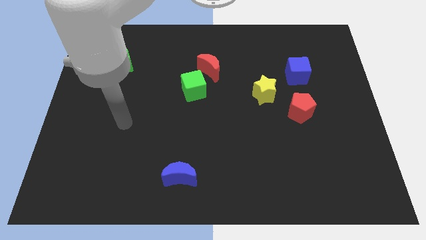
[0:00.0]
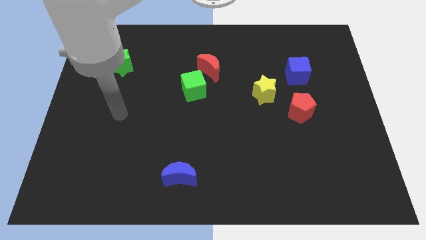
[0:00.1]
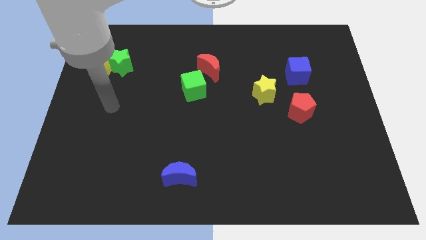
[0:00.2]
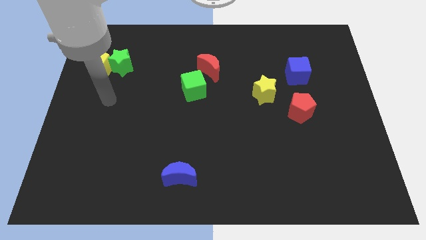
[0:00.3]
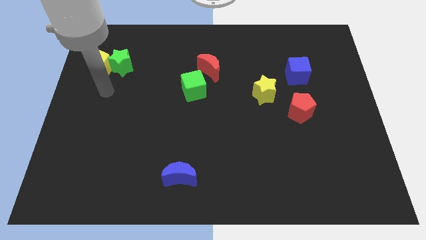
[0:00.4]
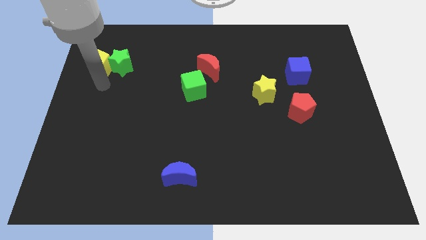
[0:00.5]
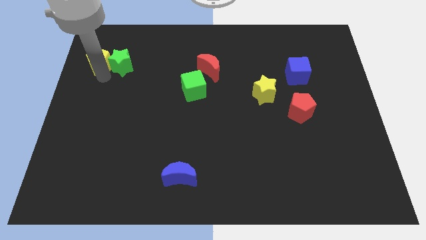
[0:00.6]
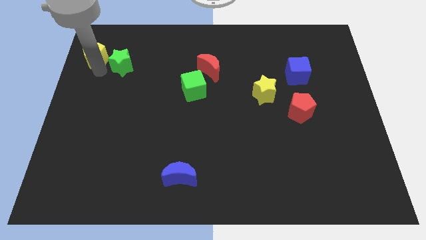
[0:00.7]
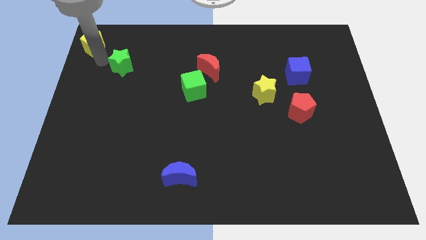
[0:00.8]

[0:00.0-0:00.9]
separate the green star from the yellow pentagon

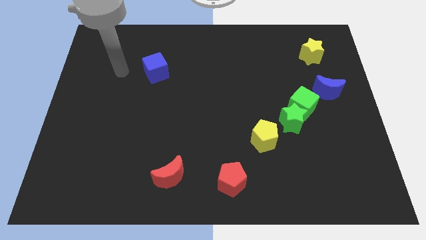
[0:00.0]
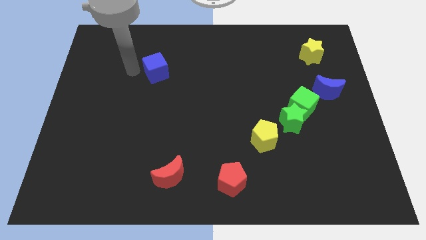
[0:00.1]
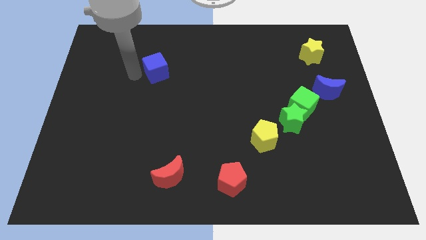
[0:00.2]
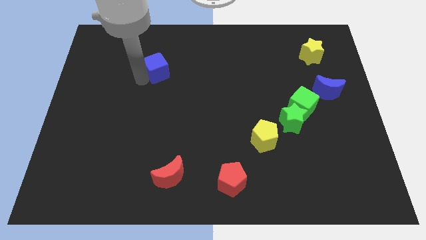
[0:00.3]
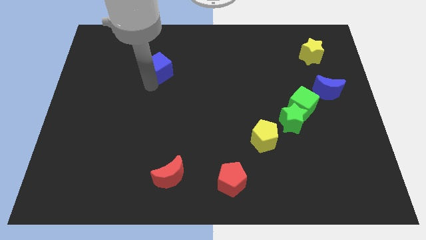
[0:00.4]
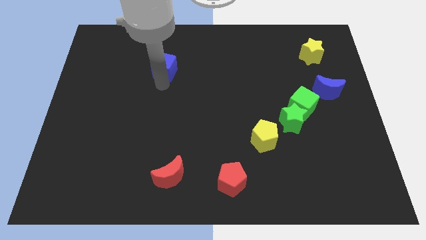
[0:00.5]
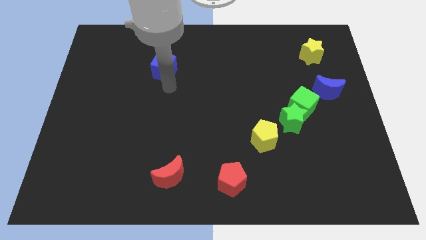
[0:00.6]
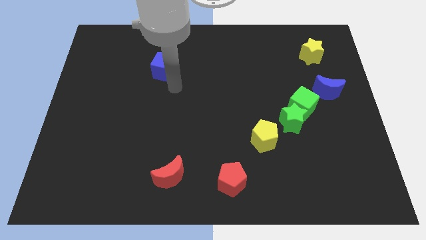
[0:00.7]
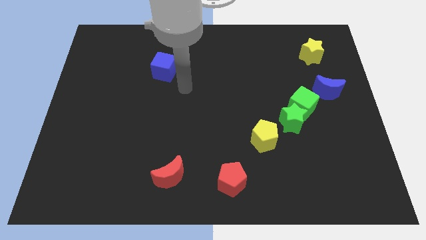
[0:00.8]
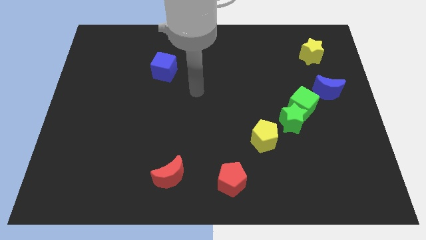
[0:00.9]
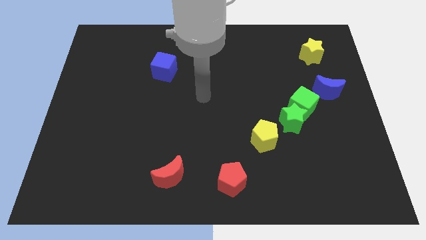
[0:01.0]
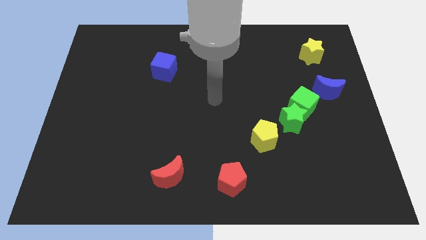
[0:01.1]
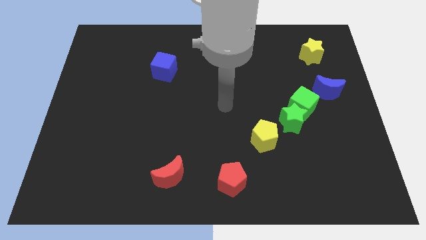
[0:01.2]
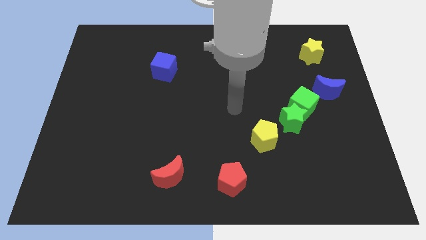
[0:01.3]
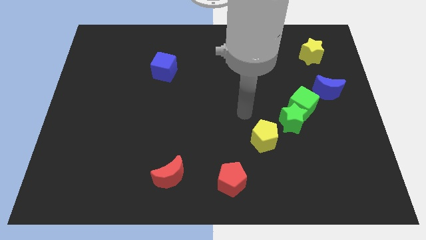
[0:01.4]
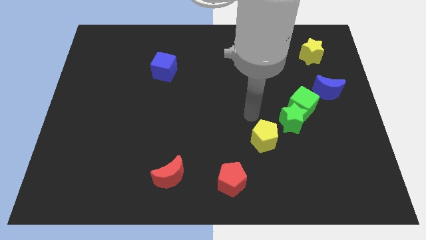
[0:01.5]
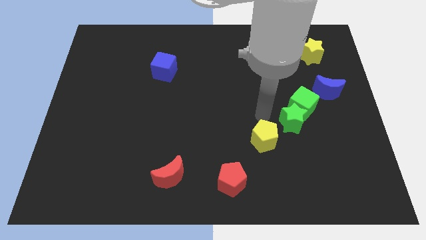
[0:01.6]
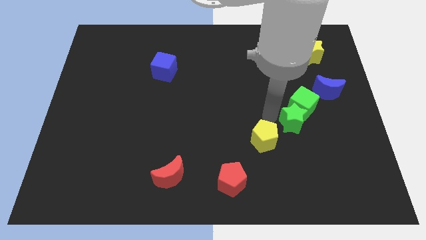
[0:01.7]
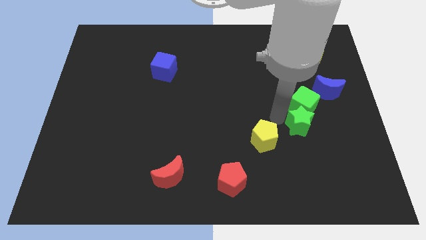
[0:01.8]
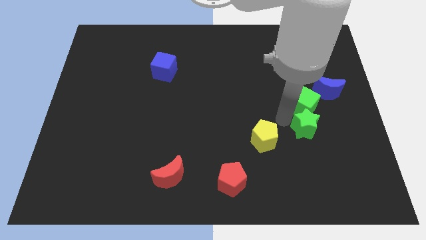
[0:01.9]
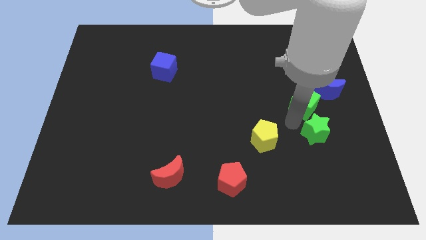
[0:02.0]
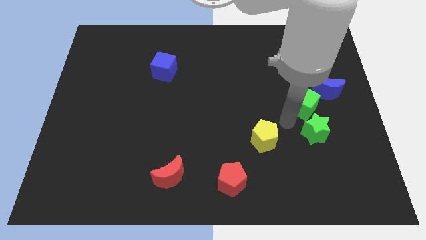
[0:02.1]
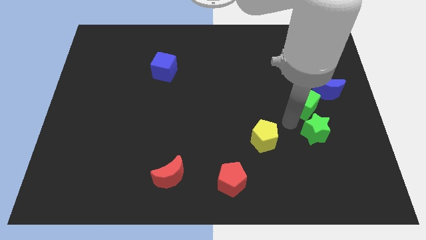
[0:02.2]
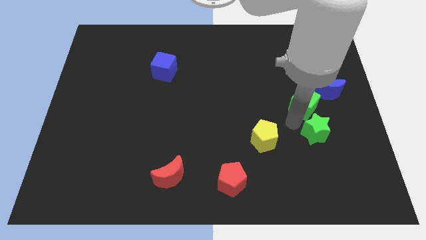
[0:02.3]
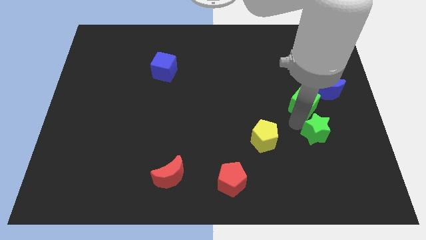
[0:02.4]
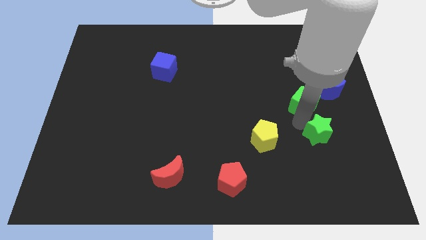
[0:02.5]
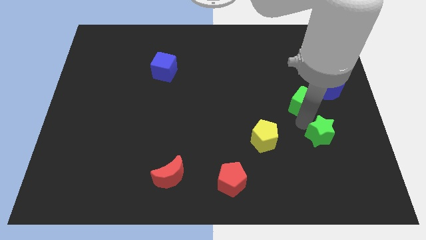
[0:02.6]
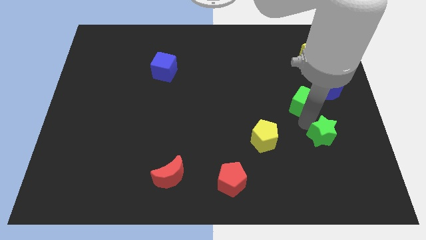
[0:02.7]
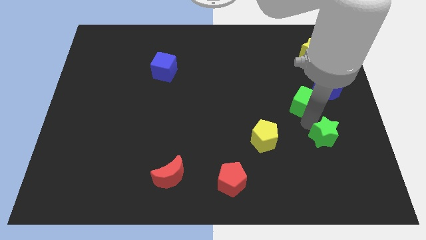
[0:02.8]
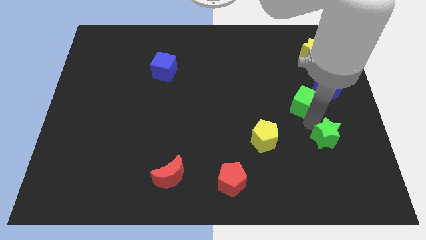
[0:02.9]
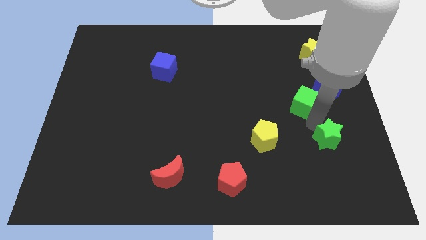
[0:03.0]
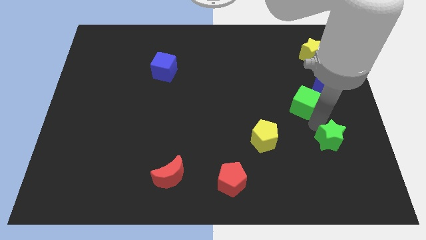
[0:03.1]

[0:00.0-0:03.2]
pull the green star apart from the green cube and yellow pentagon

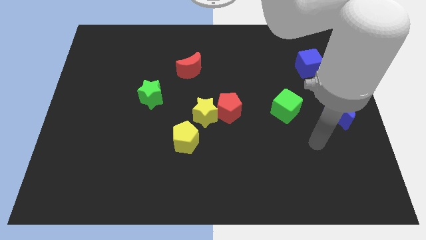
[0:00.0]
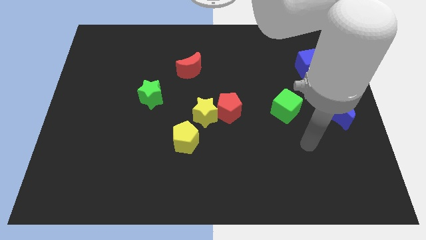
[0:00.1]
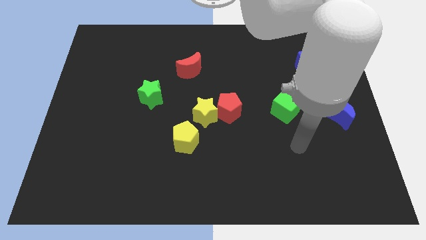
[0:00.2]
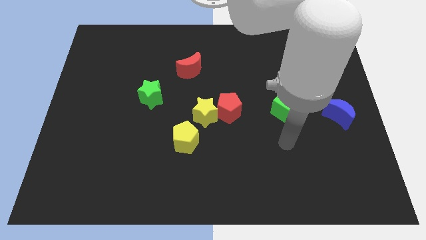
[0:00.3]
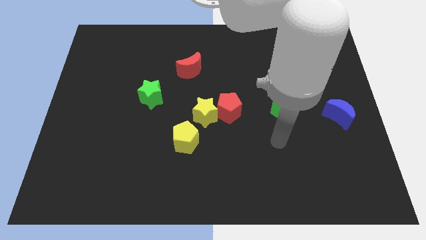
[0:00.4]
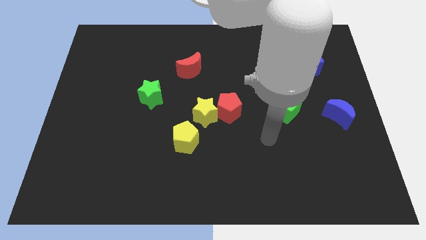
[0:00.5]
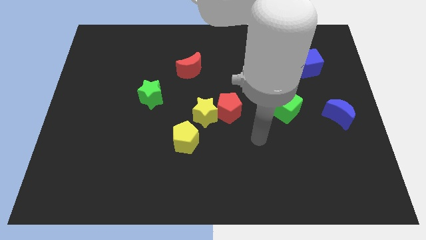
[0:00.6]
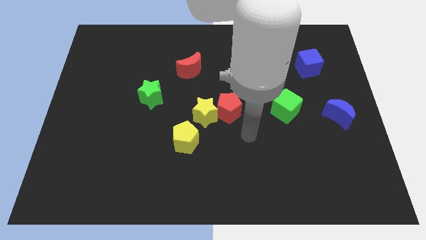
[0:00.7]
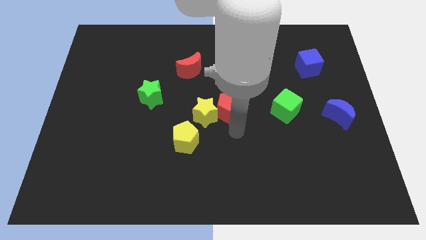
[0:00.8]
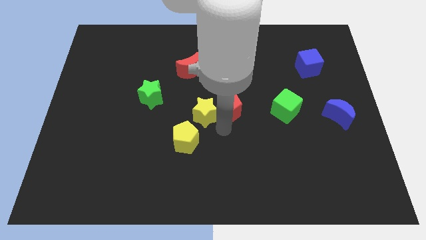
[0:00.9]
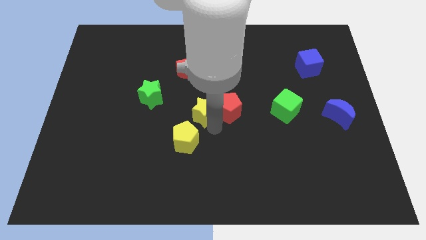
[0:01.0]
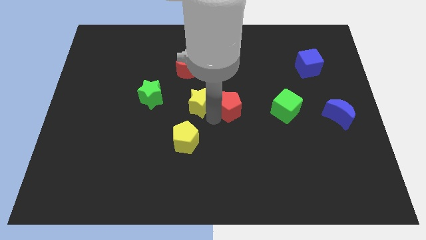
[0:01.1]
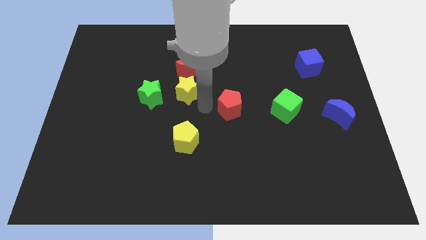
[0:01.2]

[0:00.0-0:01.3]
separate the red pentagon from the yellow star

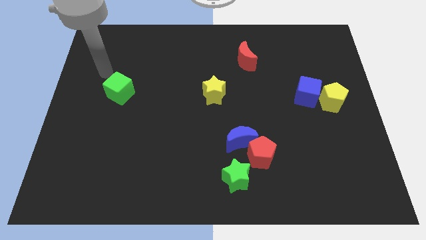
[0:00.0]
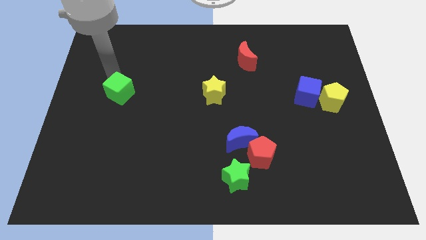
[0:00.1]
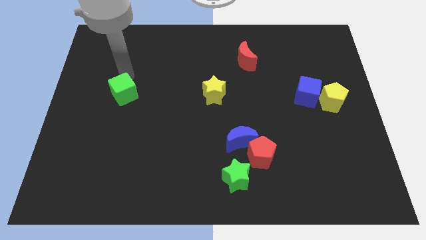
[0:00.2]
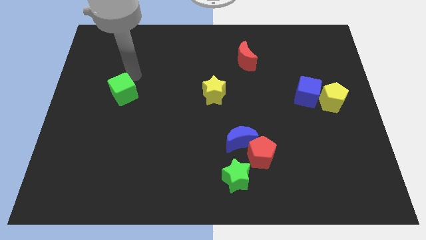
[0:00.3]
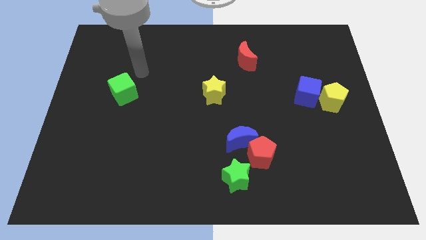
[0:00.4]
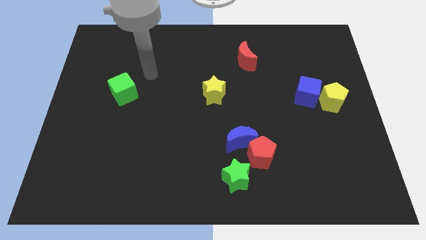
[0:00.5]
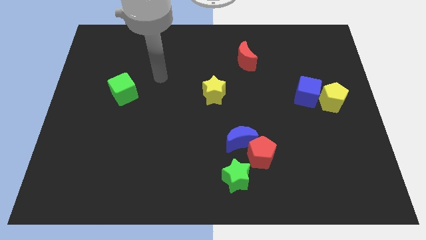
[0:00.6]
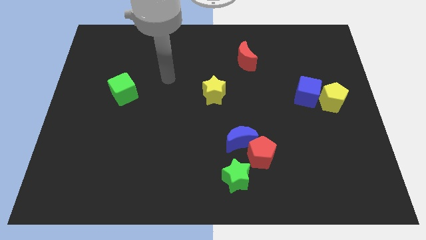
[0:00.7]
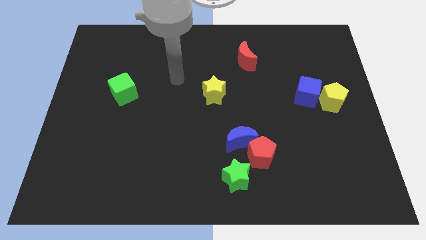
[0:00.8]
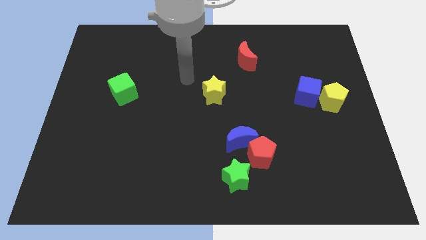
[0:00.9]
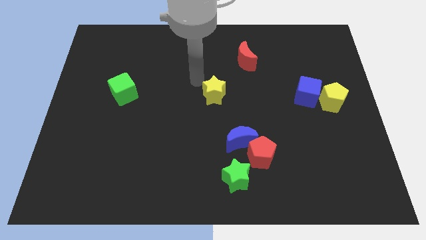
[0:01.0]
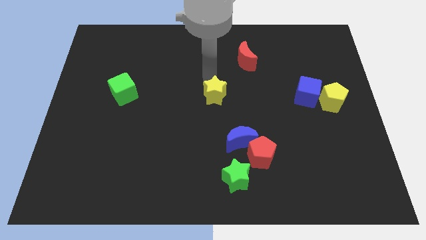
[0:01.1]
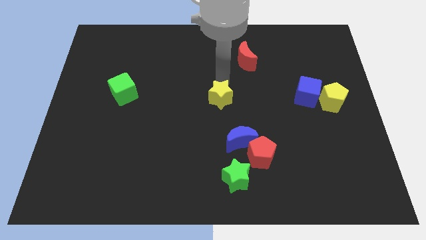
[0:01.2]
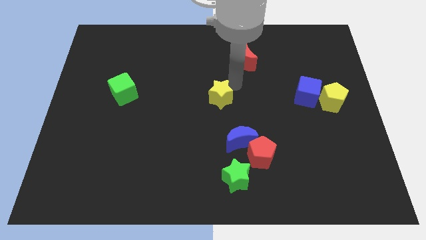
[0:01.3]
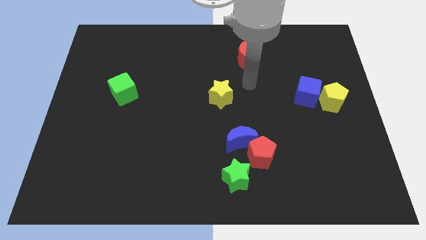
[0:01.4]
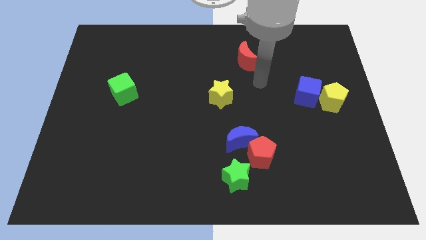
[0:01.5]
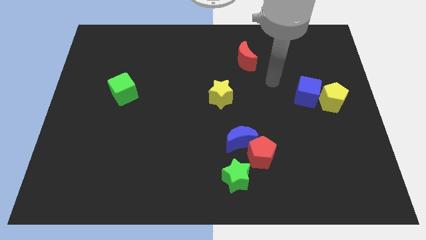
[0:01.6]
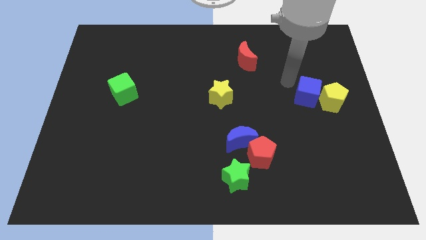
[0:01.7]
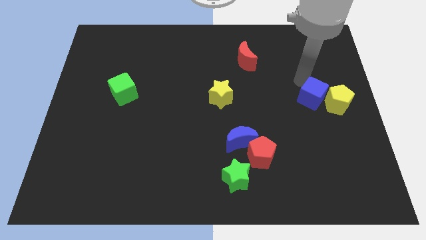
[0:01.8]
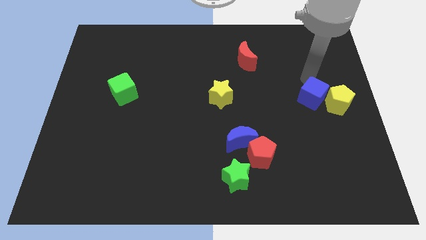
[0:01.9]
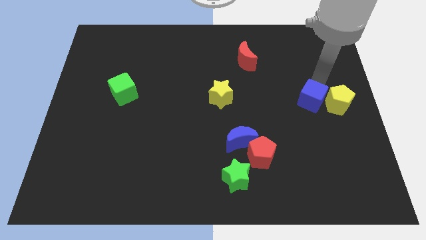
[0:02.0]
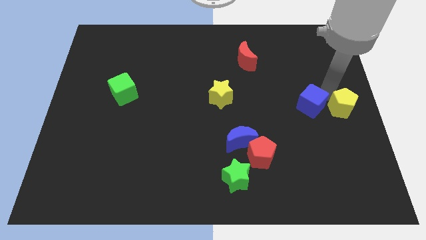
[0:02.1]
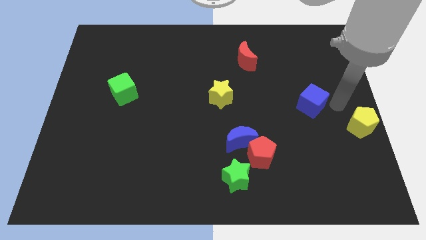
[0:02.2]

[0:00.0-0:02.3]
pull the blue cube apart from the yellow pentagon

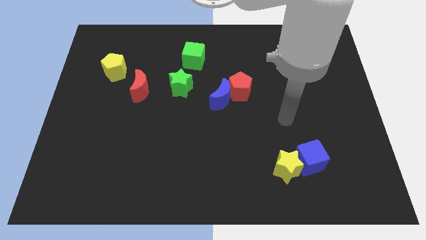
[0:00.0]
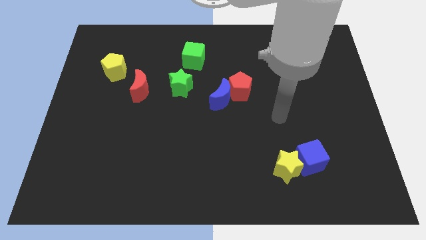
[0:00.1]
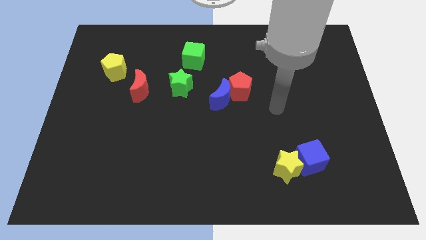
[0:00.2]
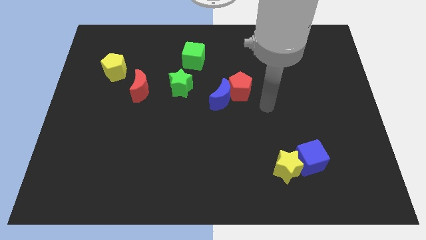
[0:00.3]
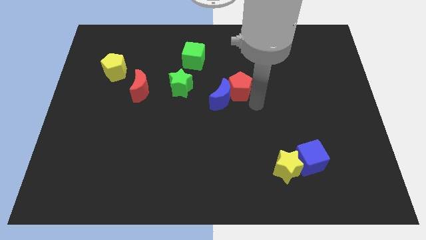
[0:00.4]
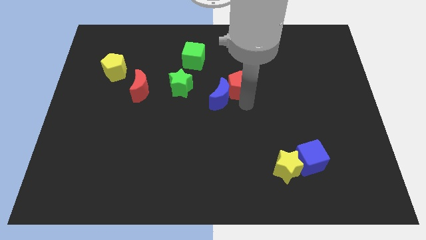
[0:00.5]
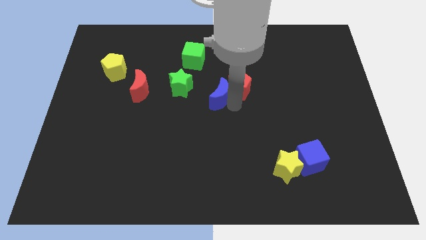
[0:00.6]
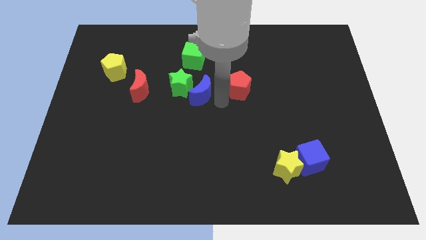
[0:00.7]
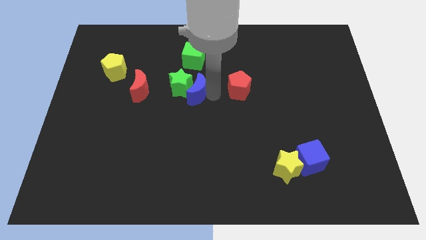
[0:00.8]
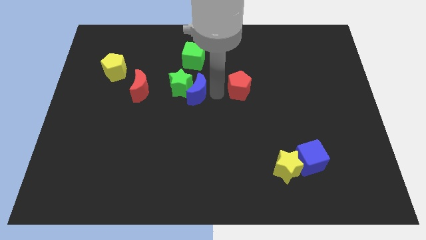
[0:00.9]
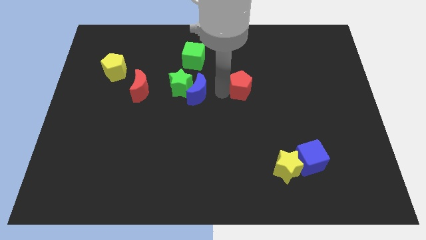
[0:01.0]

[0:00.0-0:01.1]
pull the red pentagon apart from the blue moon

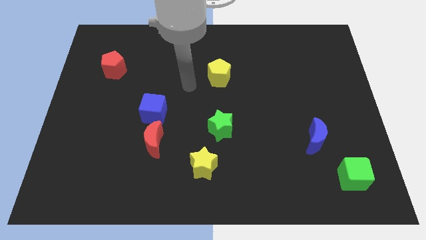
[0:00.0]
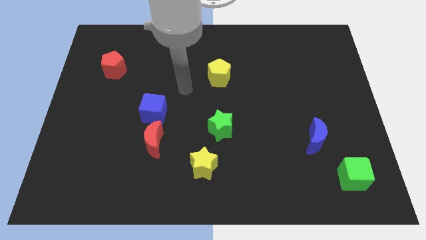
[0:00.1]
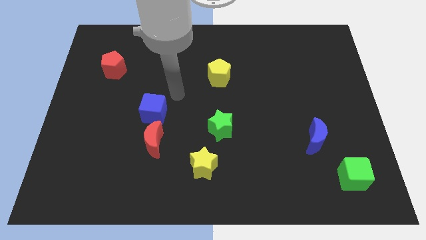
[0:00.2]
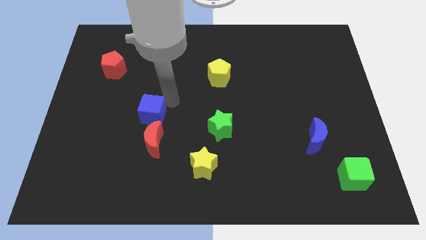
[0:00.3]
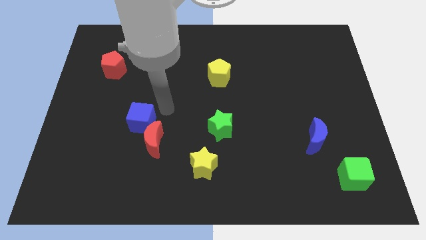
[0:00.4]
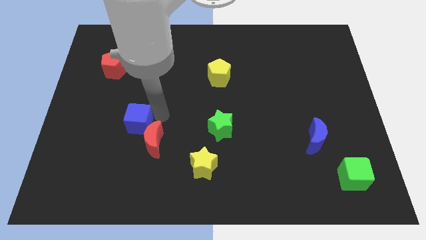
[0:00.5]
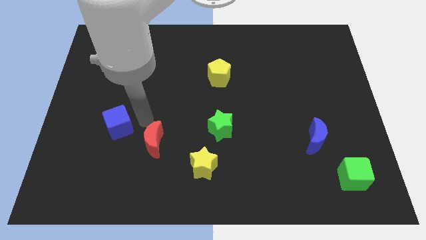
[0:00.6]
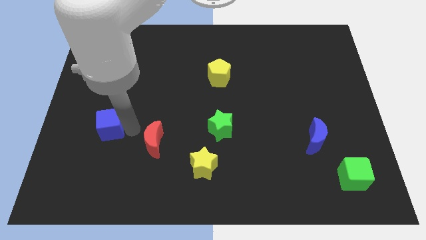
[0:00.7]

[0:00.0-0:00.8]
separate the red moon from the blue cube
